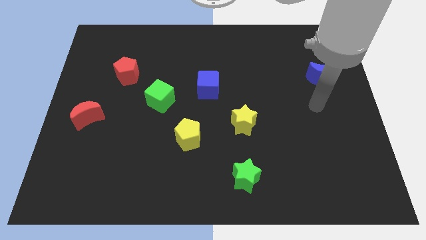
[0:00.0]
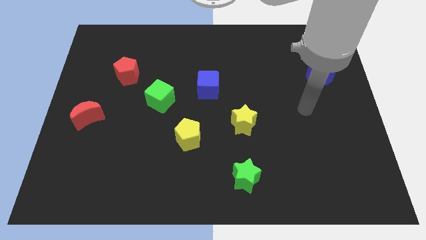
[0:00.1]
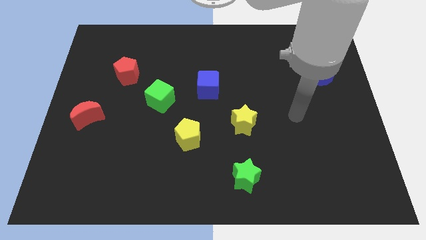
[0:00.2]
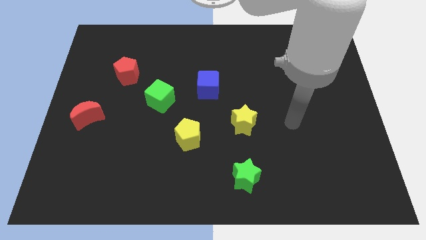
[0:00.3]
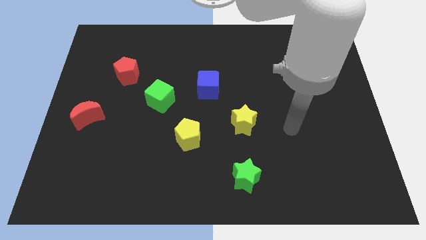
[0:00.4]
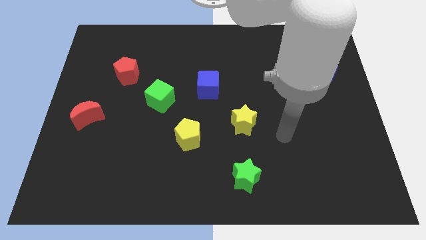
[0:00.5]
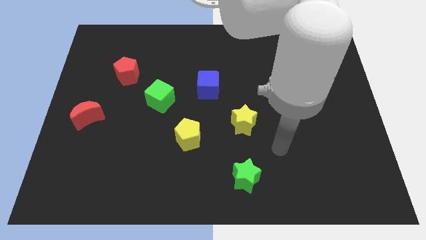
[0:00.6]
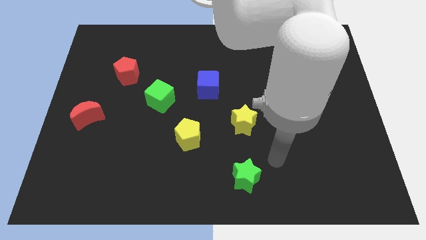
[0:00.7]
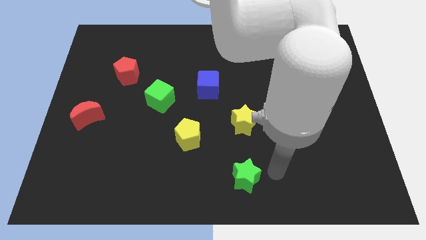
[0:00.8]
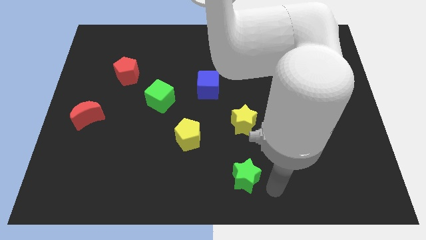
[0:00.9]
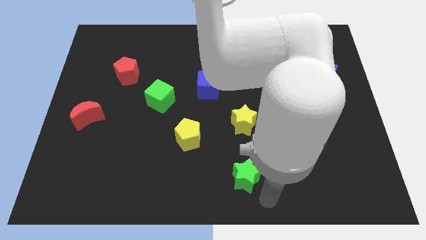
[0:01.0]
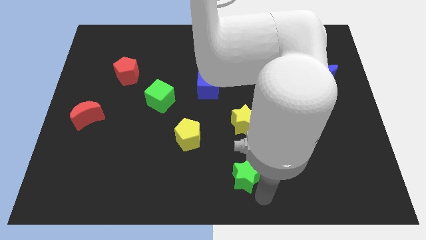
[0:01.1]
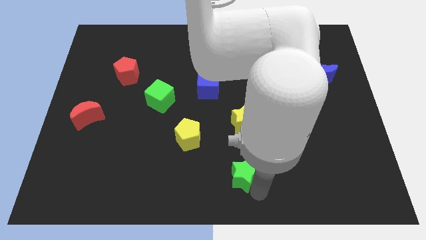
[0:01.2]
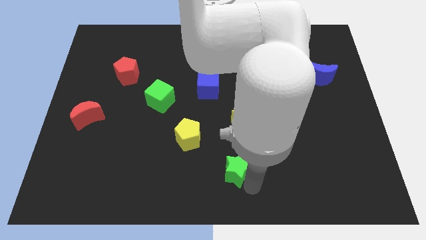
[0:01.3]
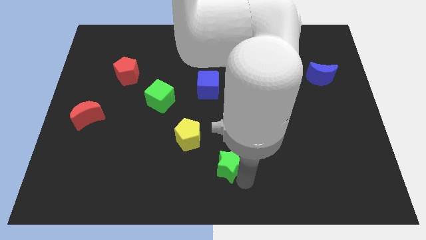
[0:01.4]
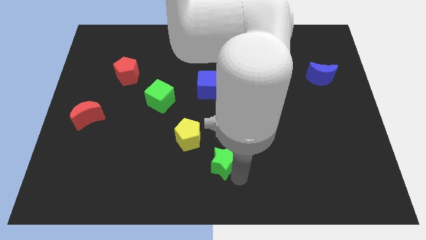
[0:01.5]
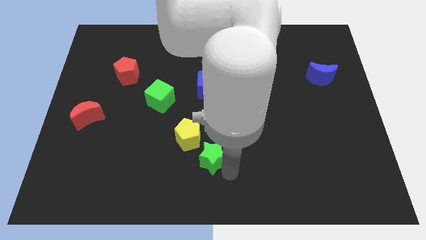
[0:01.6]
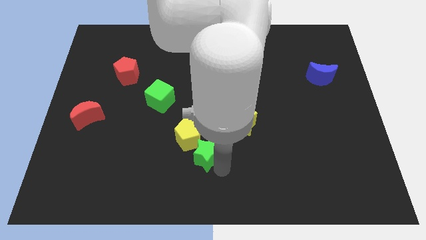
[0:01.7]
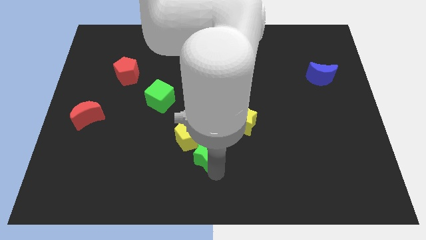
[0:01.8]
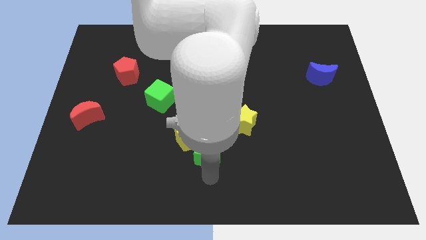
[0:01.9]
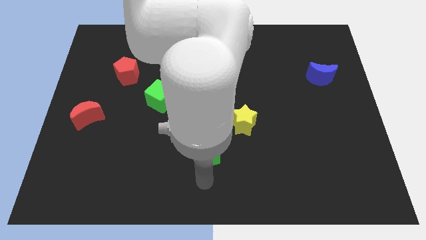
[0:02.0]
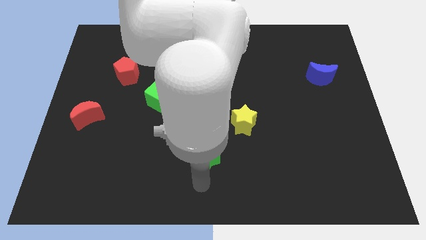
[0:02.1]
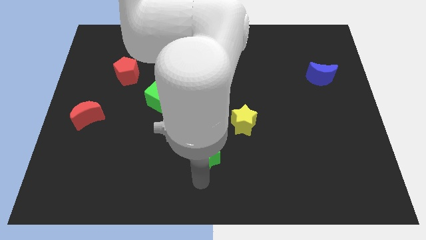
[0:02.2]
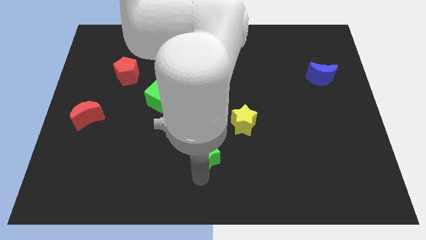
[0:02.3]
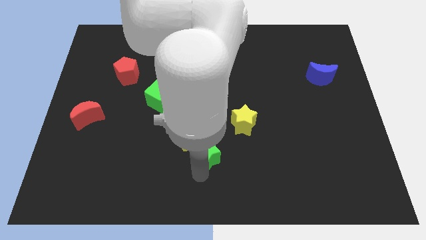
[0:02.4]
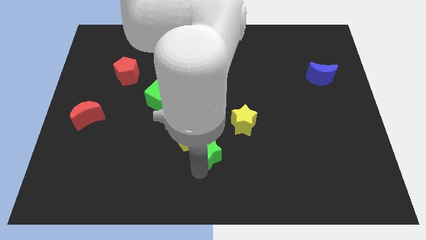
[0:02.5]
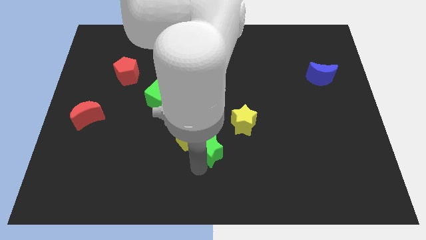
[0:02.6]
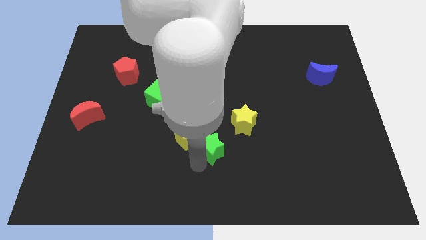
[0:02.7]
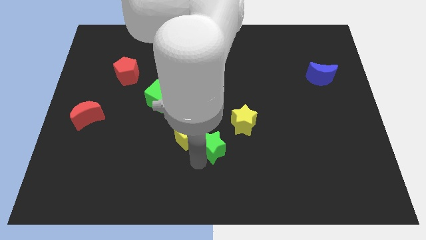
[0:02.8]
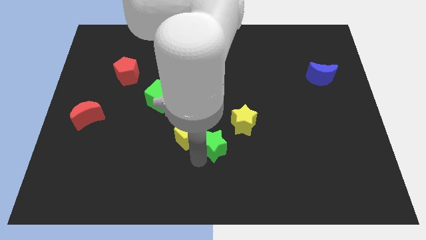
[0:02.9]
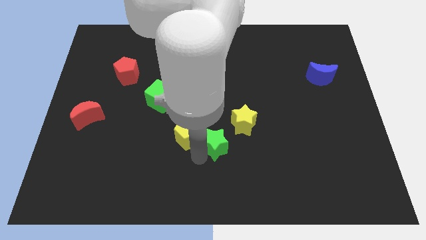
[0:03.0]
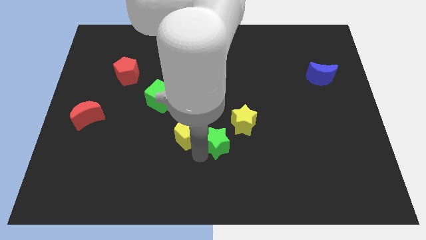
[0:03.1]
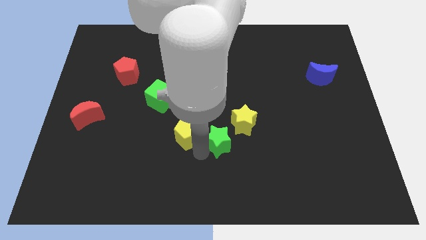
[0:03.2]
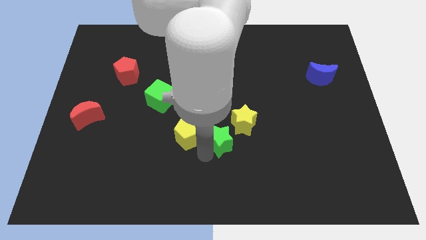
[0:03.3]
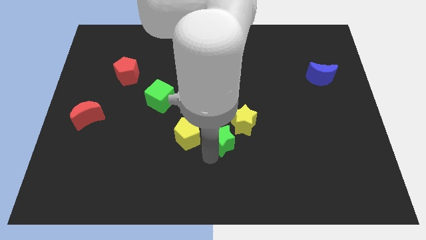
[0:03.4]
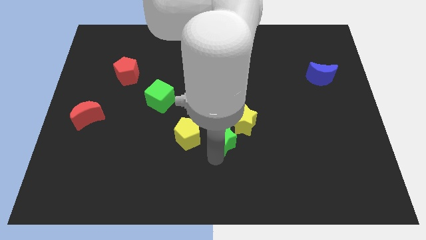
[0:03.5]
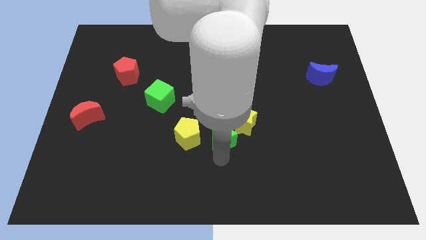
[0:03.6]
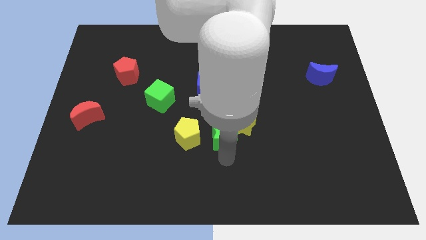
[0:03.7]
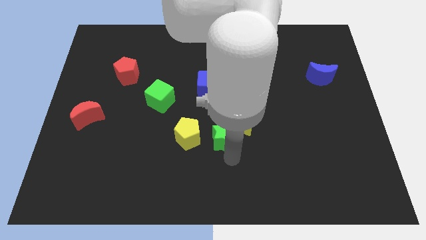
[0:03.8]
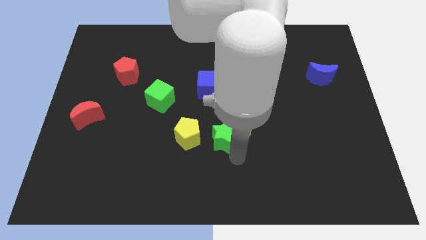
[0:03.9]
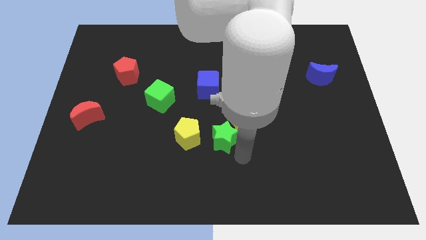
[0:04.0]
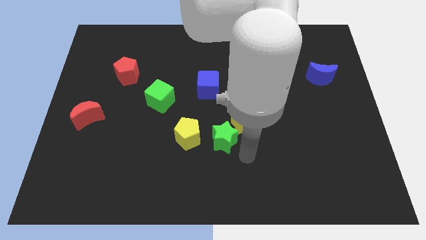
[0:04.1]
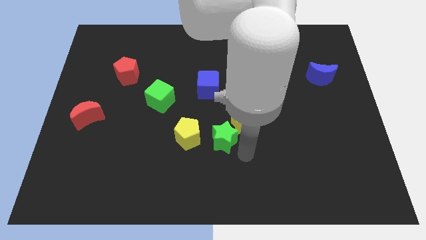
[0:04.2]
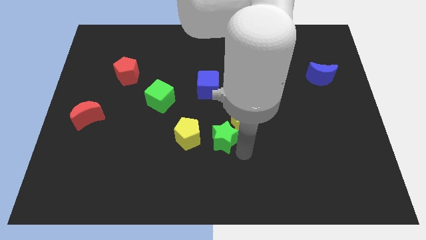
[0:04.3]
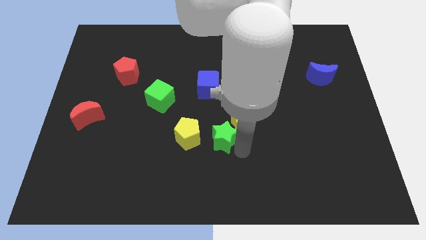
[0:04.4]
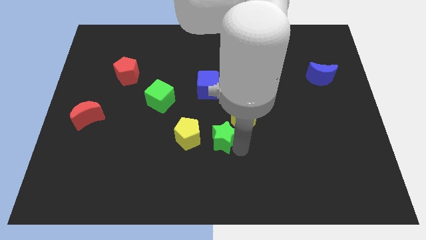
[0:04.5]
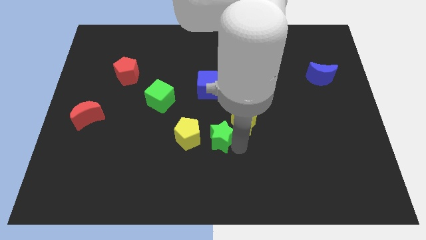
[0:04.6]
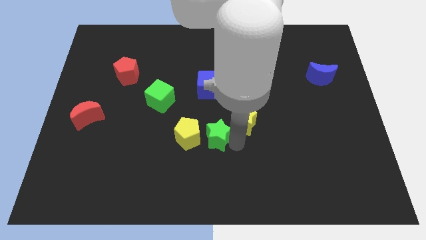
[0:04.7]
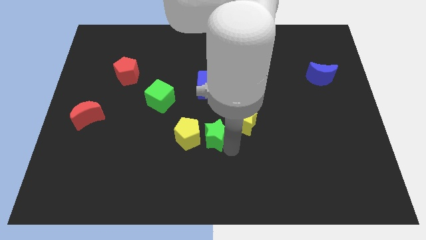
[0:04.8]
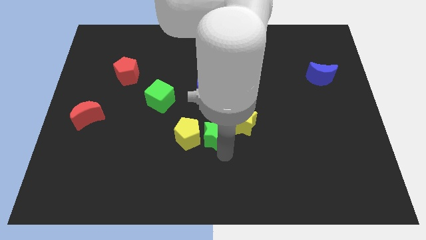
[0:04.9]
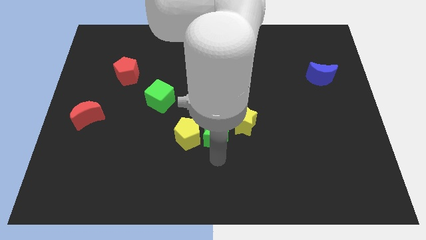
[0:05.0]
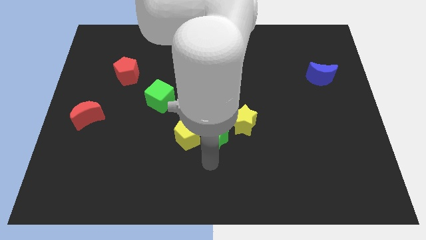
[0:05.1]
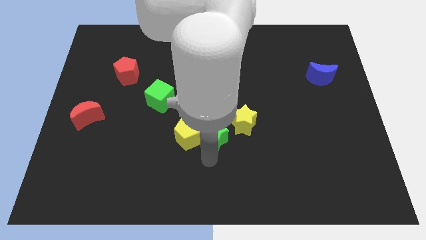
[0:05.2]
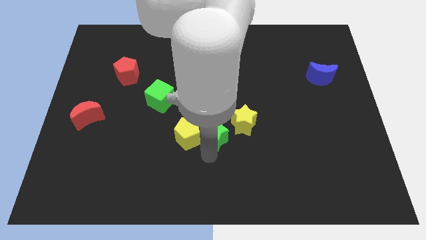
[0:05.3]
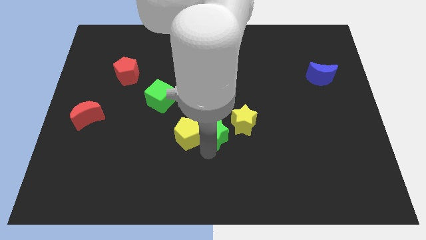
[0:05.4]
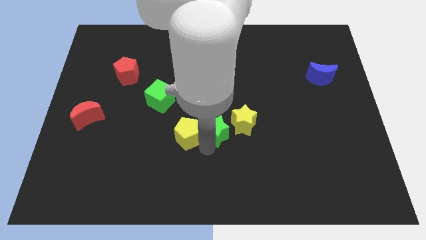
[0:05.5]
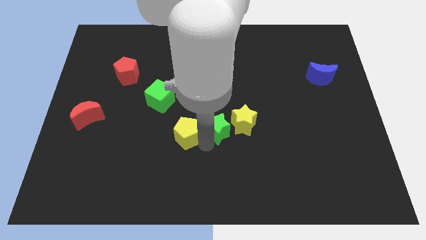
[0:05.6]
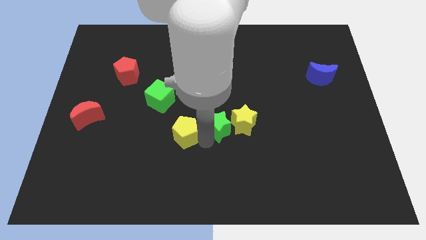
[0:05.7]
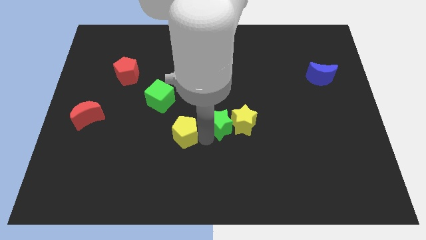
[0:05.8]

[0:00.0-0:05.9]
move the green star to the top left side of the yellow star

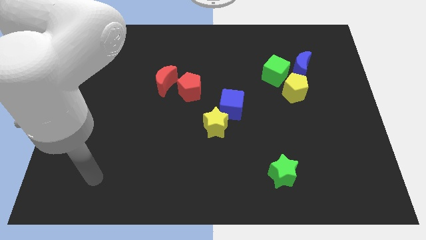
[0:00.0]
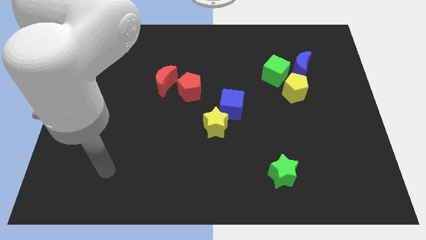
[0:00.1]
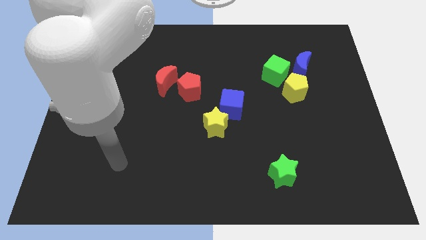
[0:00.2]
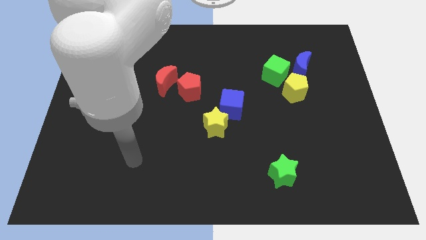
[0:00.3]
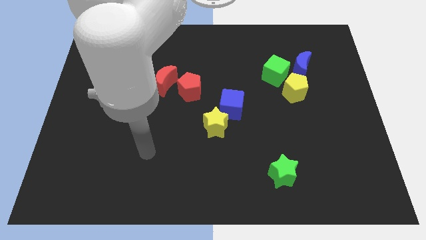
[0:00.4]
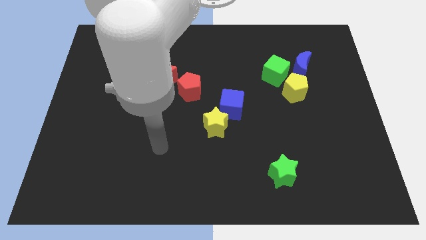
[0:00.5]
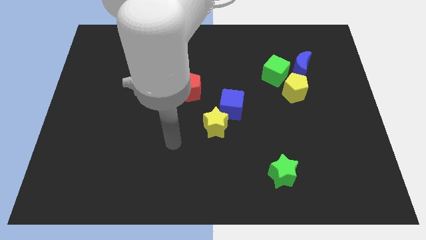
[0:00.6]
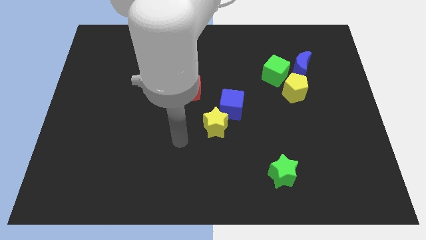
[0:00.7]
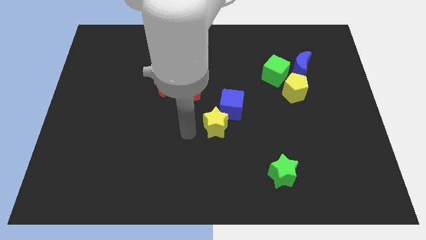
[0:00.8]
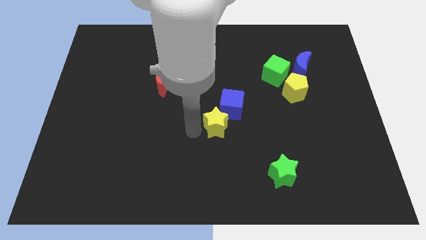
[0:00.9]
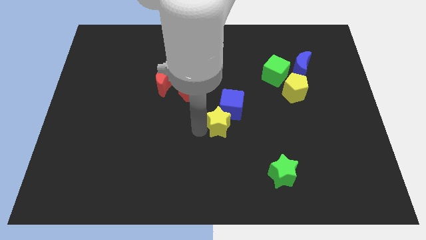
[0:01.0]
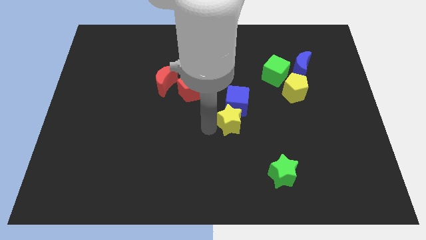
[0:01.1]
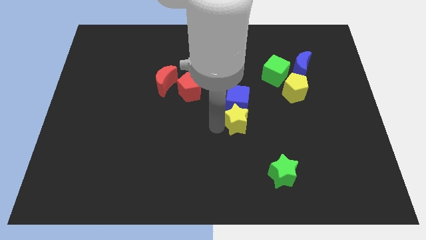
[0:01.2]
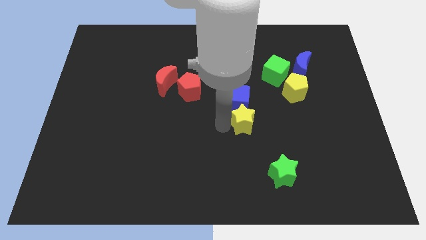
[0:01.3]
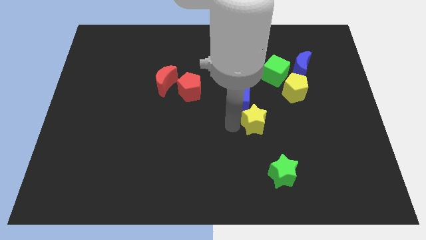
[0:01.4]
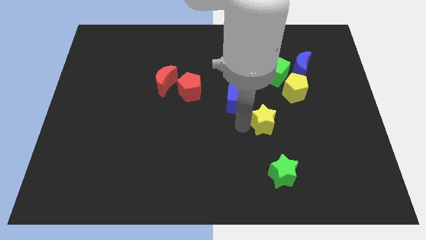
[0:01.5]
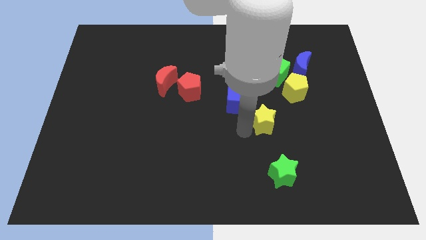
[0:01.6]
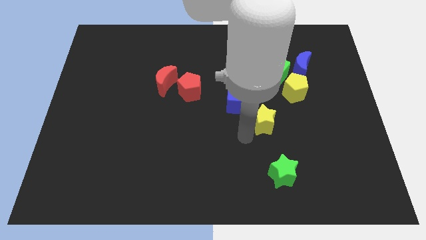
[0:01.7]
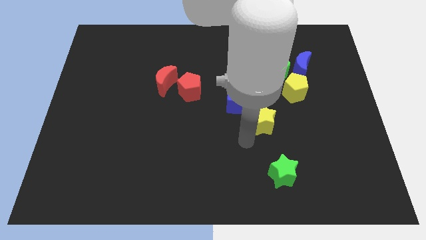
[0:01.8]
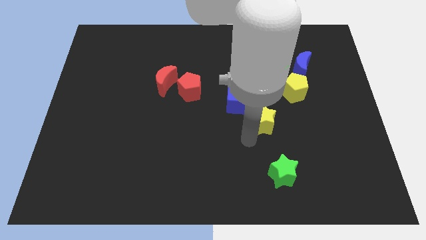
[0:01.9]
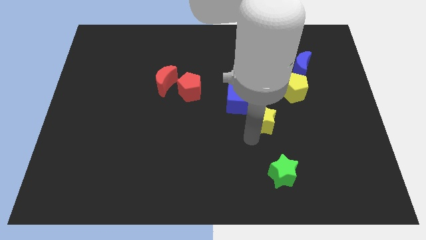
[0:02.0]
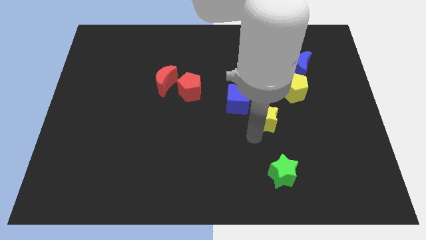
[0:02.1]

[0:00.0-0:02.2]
push the yellow star to the bottom of the green cube
